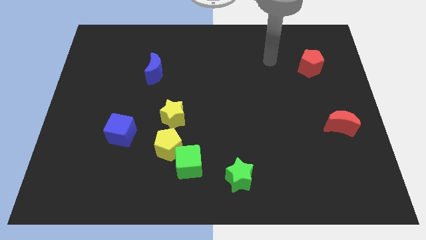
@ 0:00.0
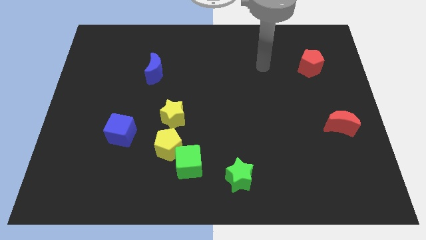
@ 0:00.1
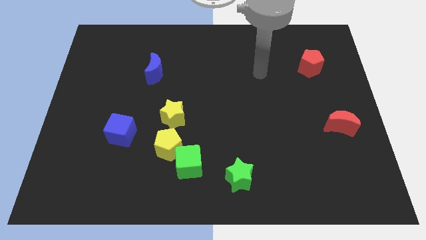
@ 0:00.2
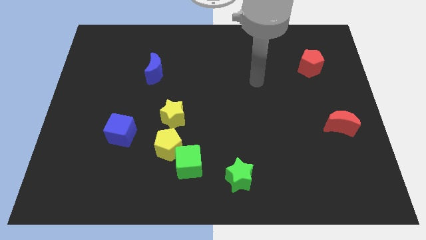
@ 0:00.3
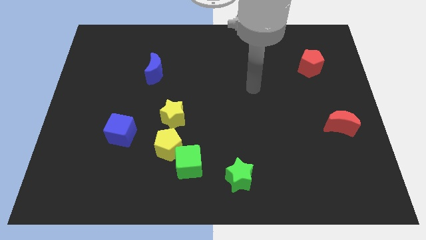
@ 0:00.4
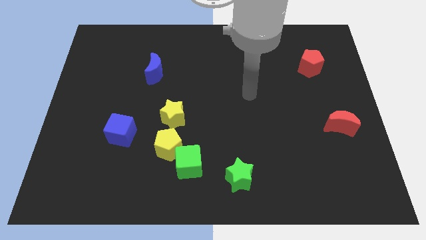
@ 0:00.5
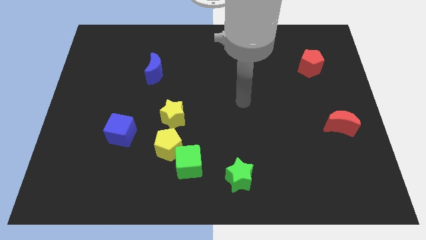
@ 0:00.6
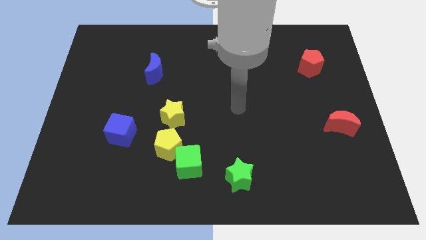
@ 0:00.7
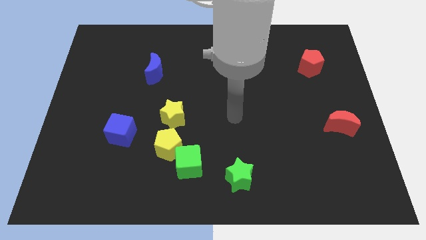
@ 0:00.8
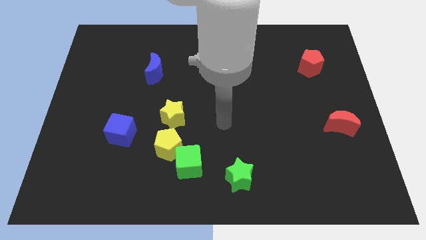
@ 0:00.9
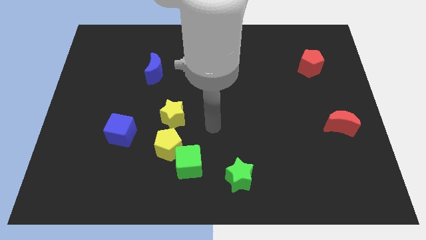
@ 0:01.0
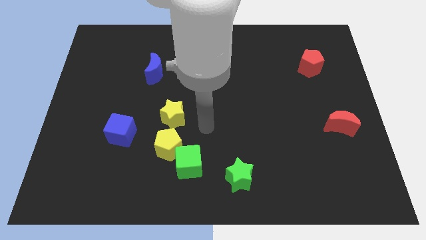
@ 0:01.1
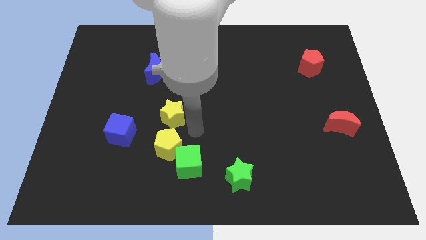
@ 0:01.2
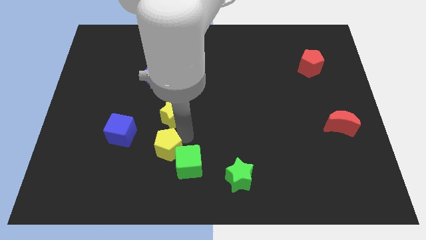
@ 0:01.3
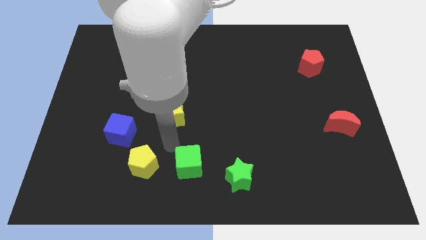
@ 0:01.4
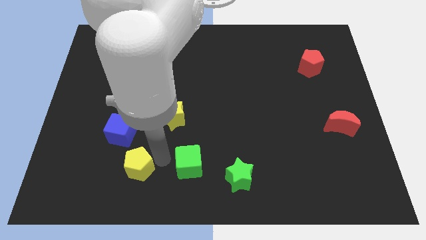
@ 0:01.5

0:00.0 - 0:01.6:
separate the green cube from the yellow pentagon

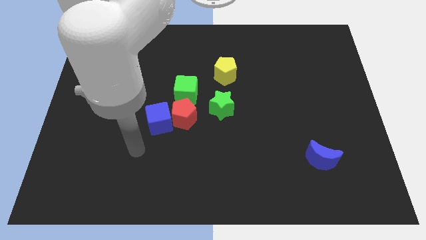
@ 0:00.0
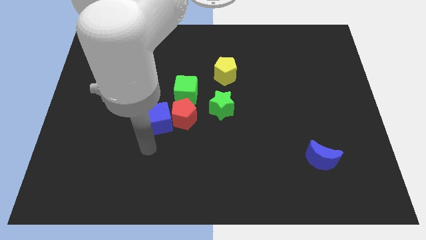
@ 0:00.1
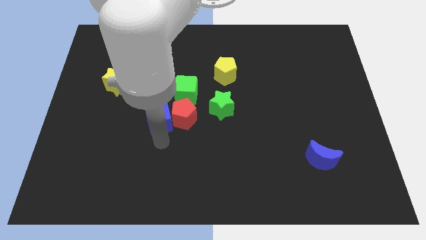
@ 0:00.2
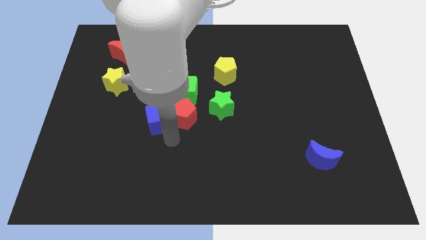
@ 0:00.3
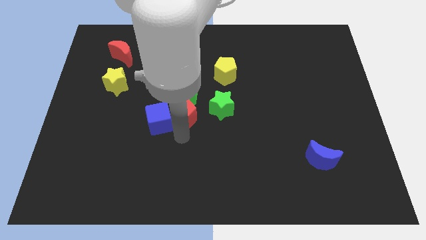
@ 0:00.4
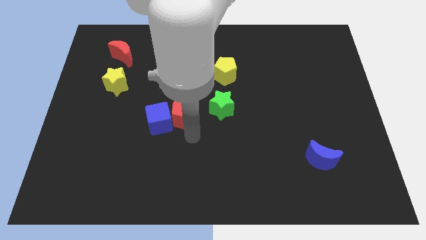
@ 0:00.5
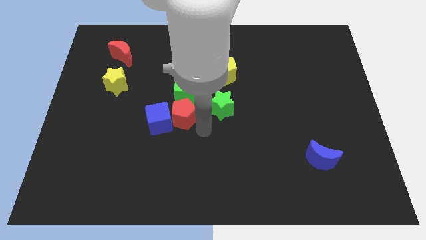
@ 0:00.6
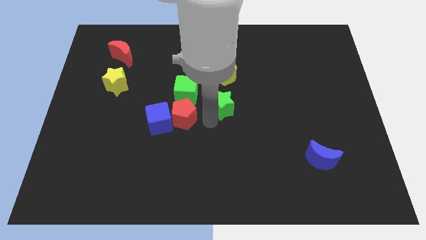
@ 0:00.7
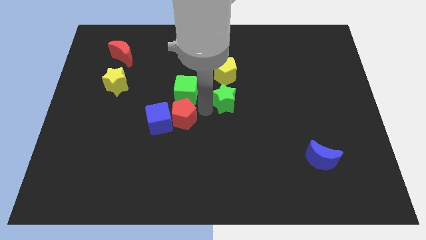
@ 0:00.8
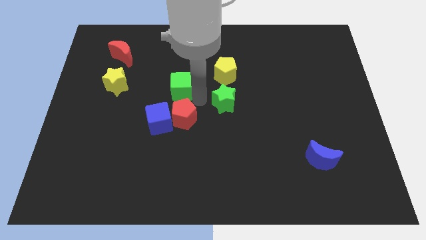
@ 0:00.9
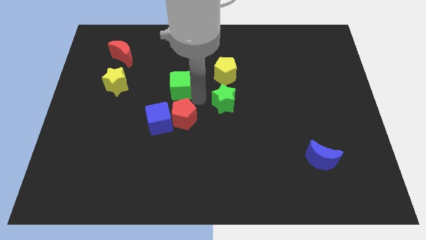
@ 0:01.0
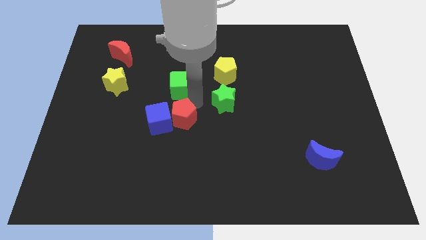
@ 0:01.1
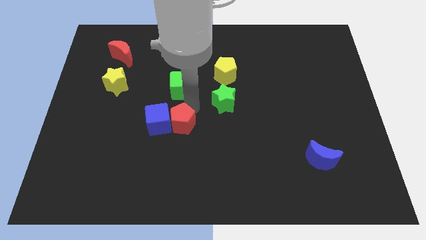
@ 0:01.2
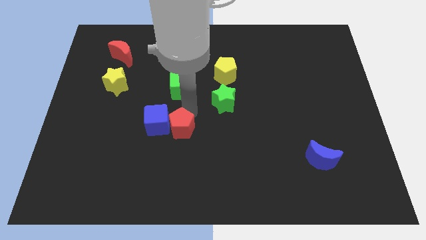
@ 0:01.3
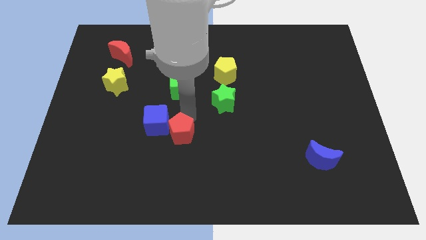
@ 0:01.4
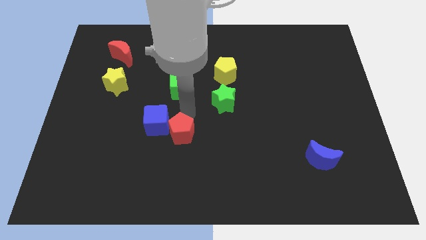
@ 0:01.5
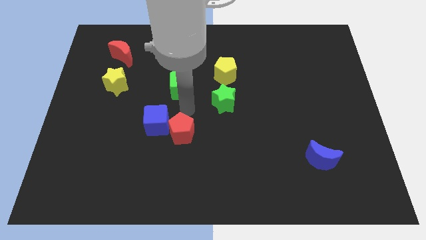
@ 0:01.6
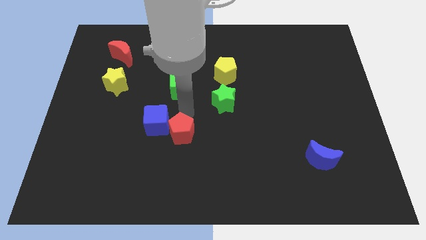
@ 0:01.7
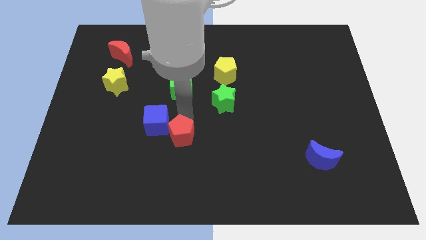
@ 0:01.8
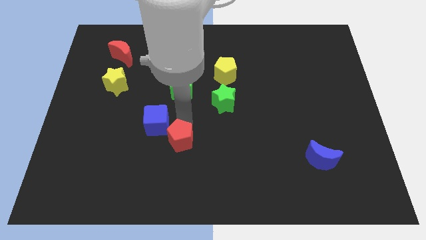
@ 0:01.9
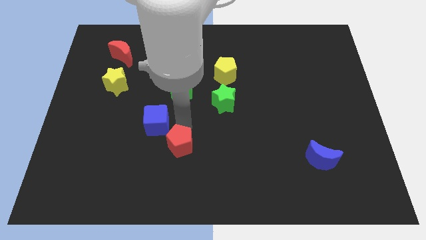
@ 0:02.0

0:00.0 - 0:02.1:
pull the red pentagon apart from the blue cube, green cube, and green star

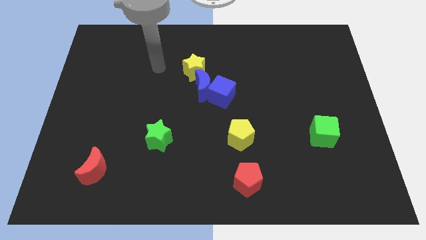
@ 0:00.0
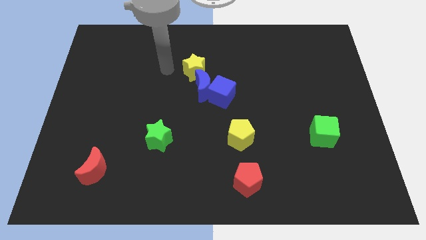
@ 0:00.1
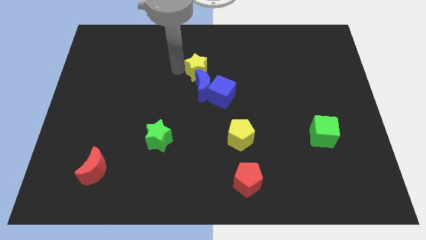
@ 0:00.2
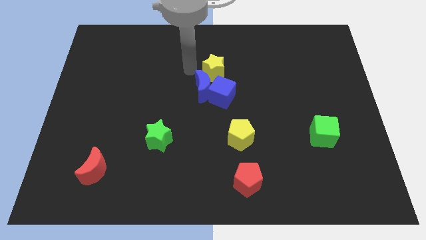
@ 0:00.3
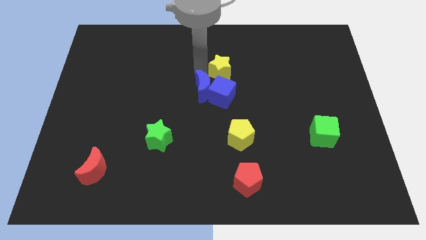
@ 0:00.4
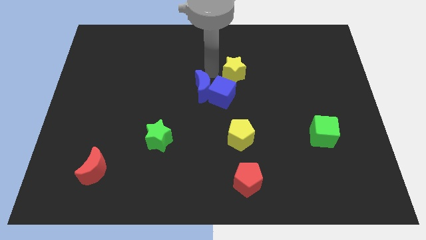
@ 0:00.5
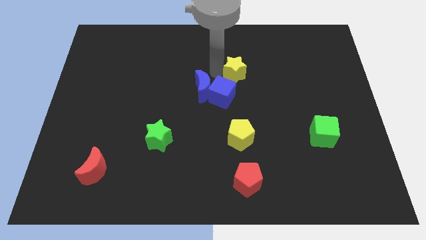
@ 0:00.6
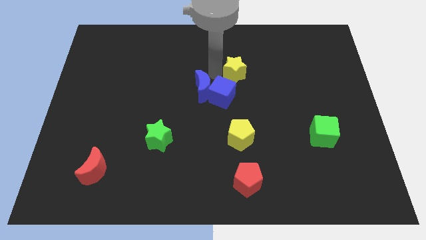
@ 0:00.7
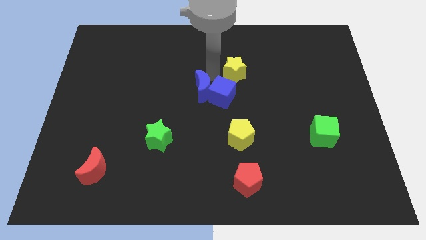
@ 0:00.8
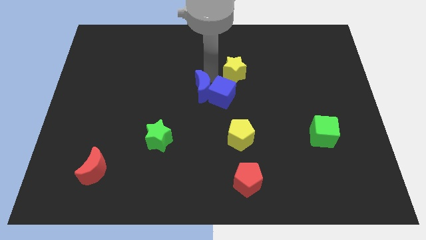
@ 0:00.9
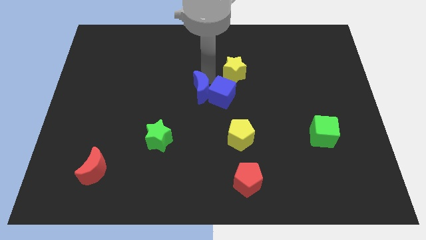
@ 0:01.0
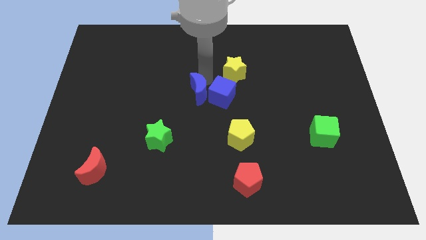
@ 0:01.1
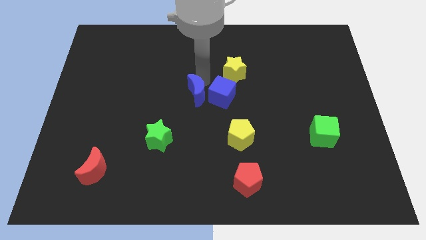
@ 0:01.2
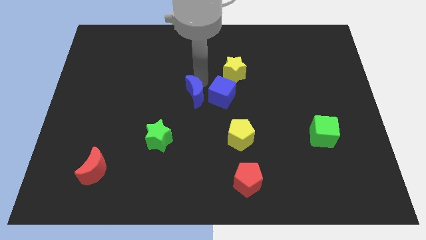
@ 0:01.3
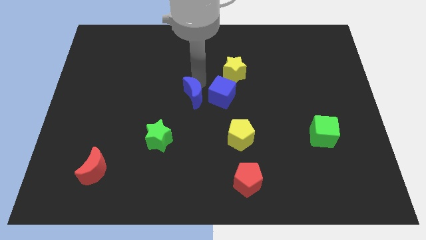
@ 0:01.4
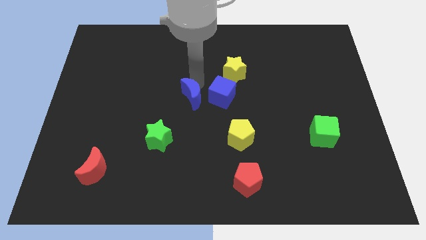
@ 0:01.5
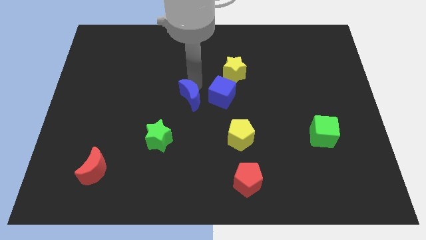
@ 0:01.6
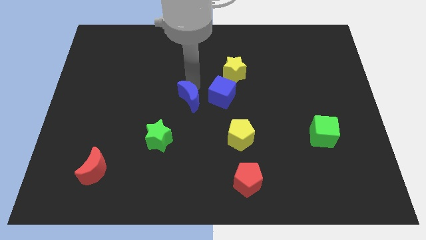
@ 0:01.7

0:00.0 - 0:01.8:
pull the blue moon apart from the blue cube and yellow star

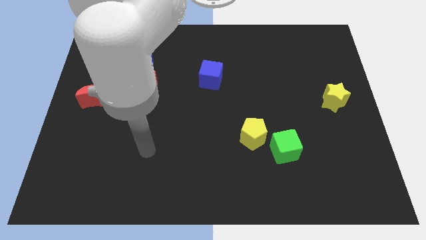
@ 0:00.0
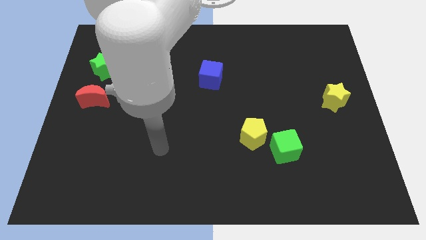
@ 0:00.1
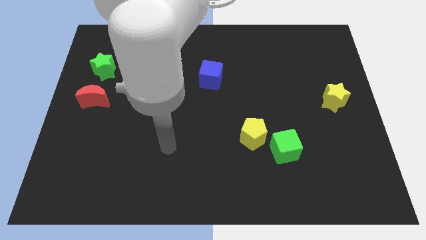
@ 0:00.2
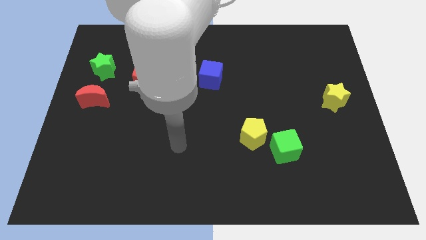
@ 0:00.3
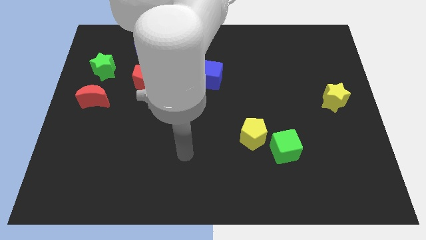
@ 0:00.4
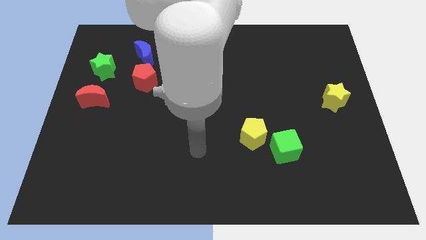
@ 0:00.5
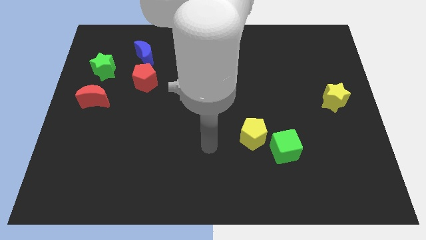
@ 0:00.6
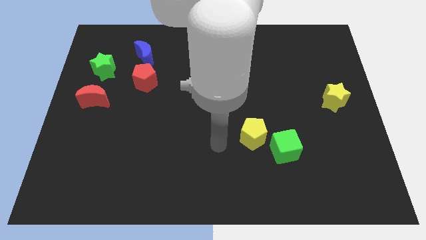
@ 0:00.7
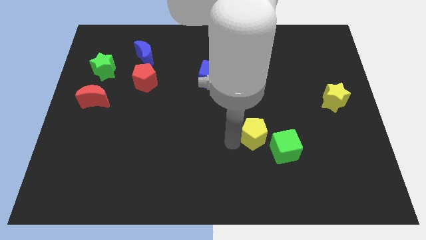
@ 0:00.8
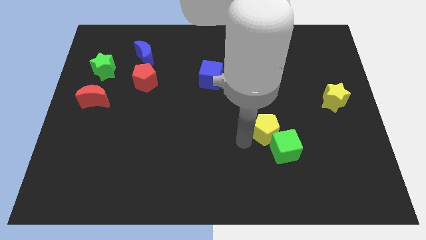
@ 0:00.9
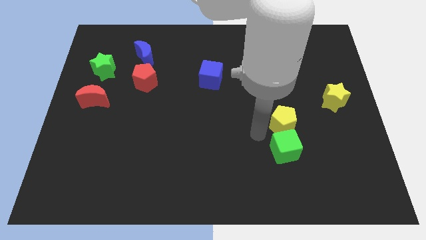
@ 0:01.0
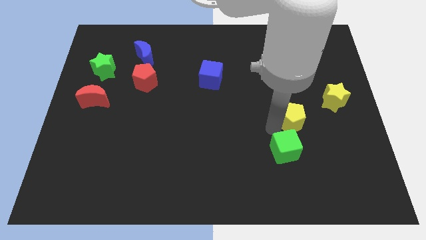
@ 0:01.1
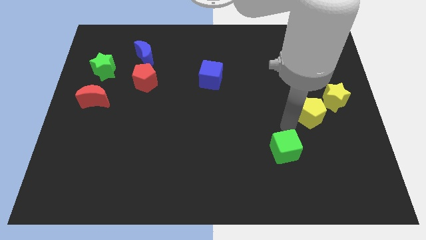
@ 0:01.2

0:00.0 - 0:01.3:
move the green cube away from the yellow pentagon

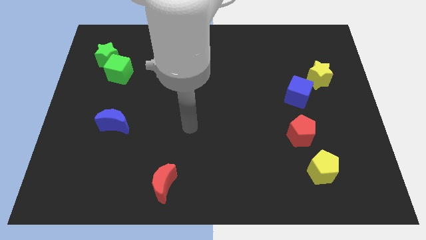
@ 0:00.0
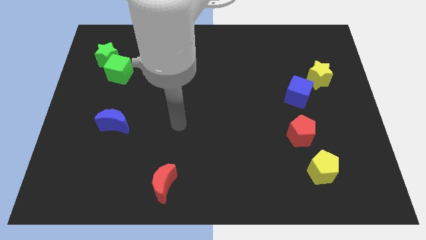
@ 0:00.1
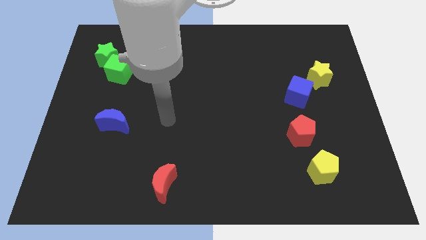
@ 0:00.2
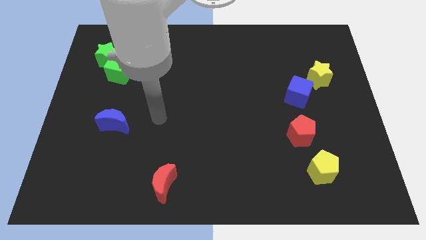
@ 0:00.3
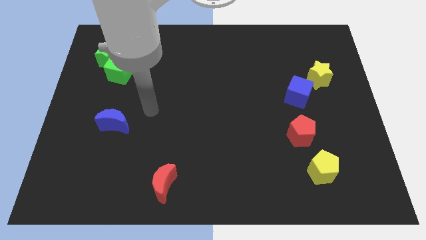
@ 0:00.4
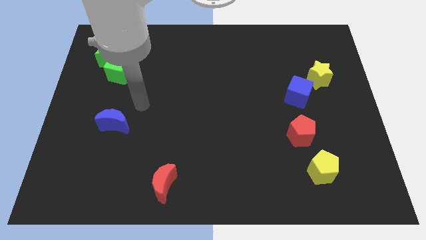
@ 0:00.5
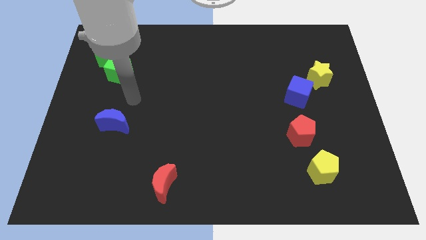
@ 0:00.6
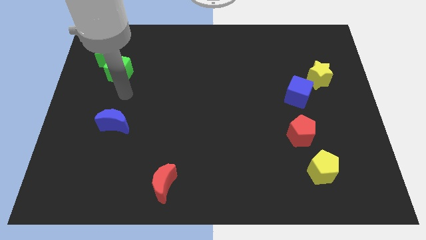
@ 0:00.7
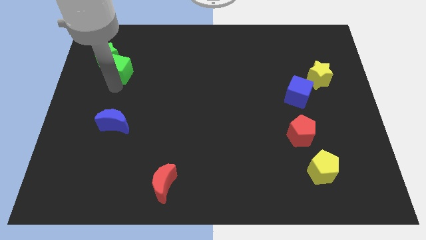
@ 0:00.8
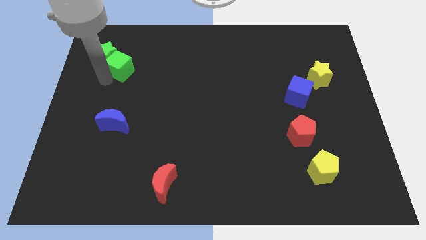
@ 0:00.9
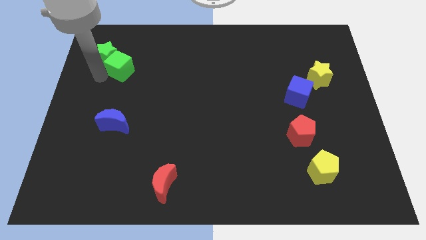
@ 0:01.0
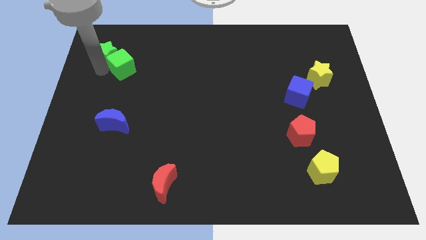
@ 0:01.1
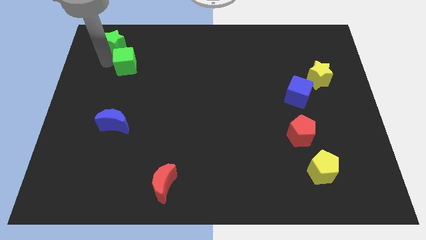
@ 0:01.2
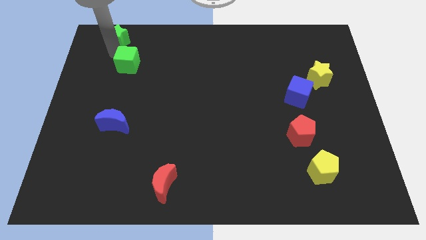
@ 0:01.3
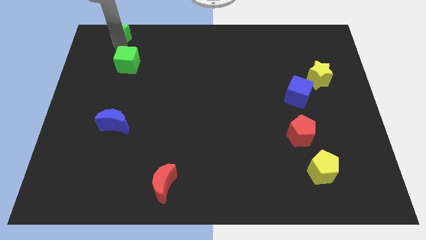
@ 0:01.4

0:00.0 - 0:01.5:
move the green cube away from the green star

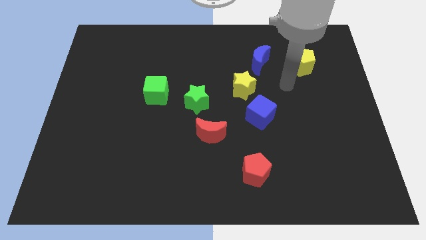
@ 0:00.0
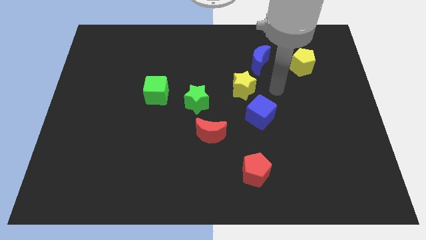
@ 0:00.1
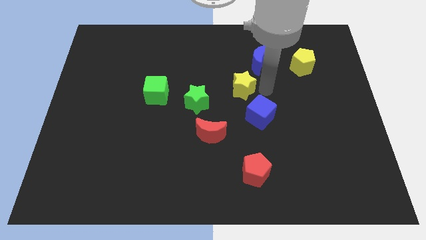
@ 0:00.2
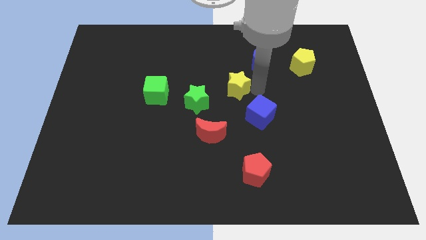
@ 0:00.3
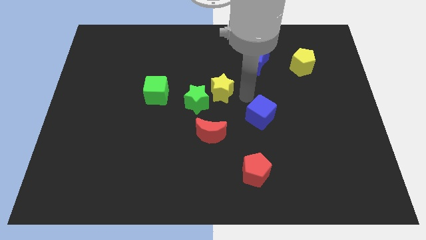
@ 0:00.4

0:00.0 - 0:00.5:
separate the blue cube from the yellow star

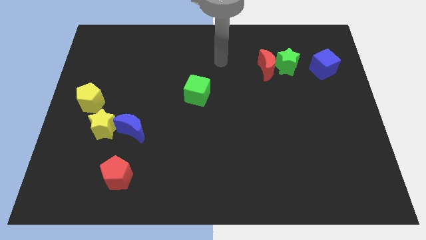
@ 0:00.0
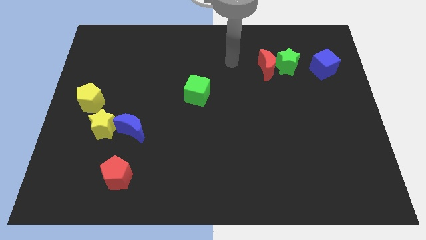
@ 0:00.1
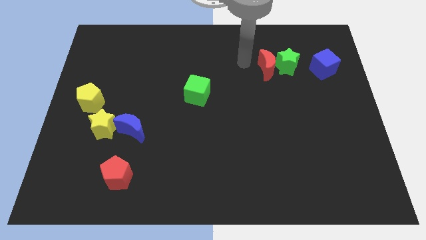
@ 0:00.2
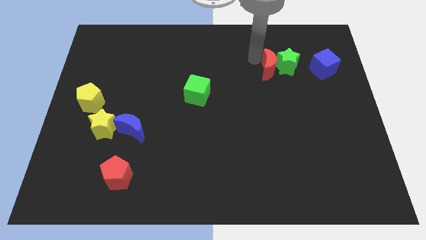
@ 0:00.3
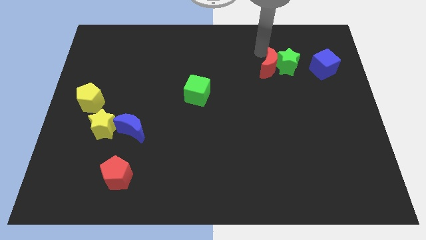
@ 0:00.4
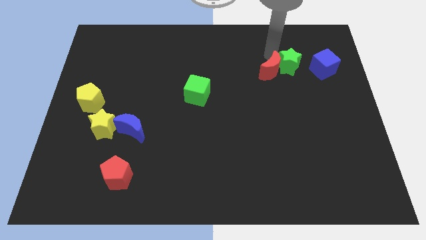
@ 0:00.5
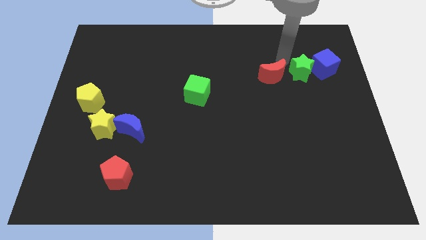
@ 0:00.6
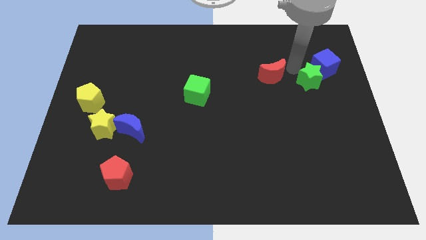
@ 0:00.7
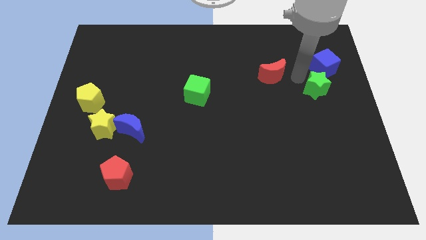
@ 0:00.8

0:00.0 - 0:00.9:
separate the red moon from the green star
